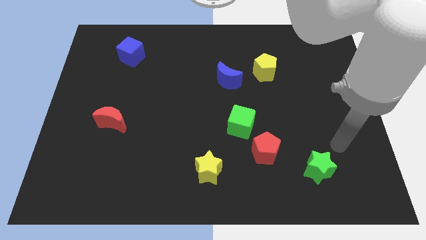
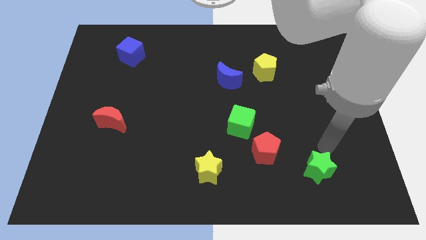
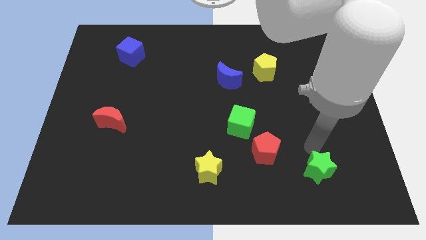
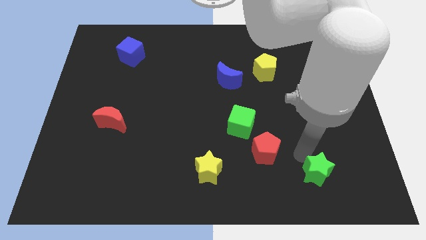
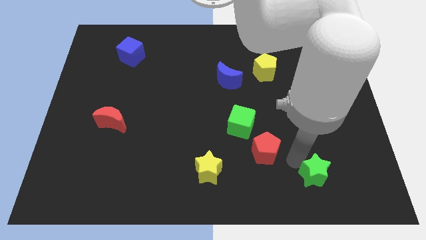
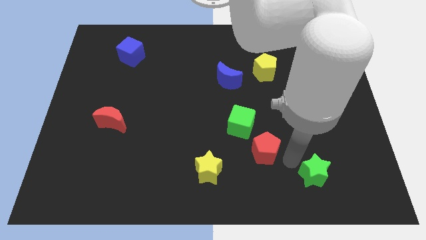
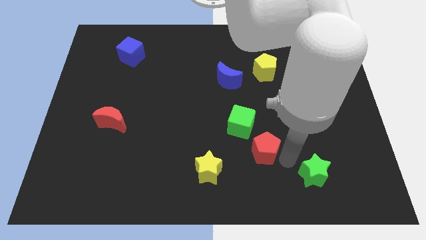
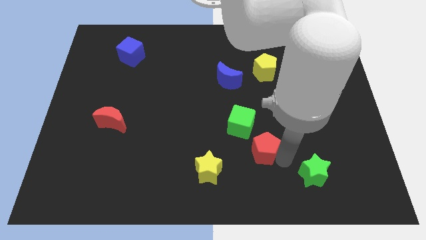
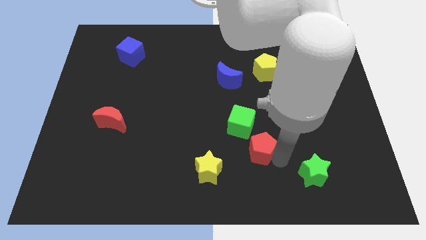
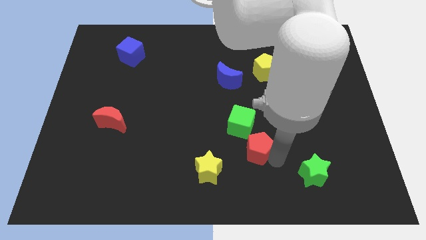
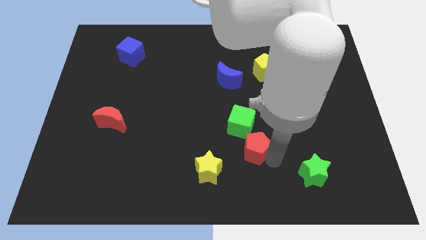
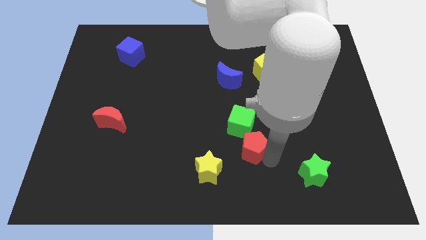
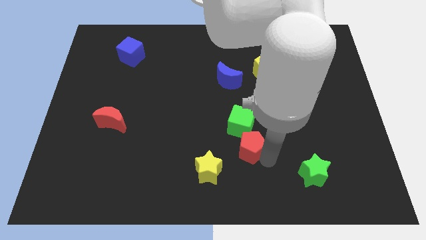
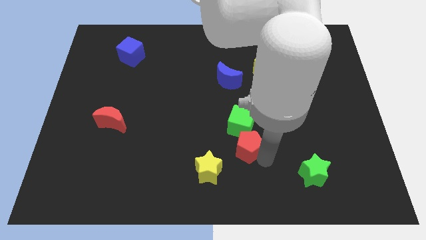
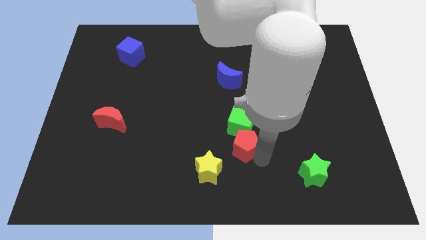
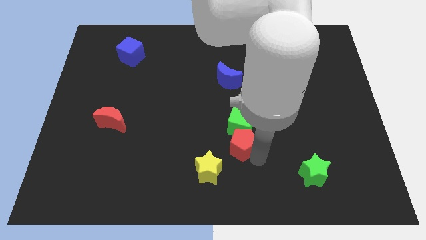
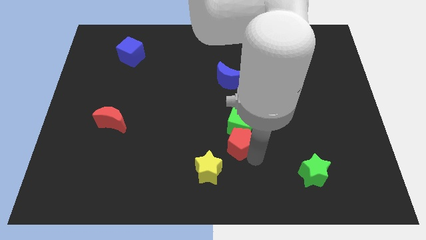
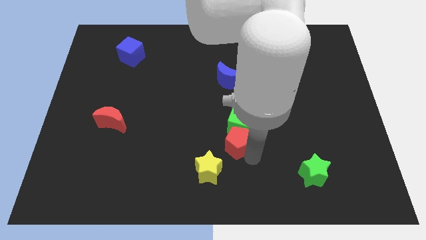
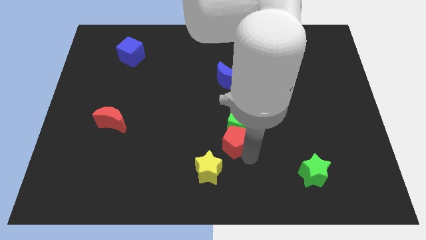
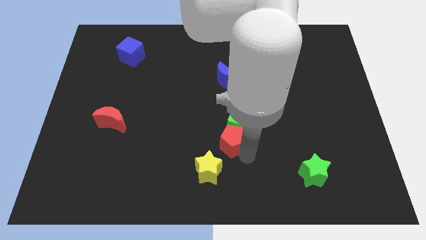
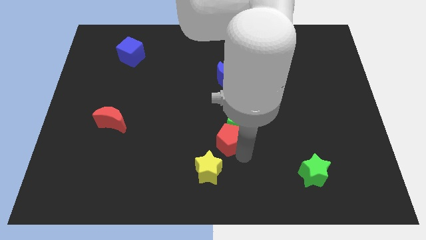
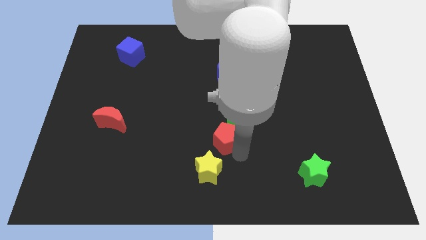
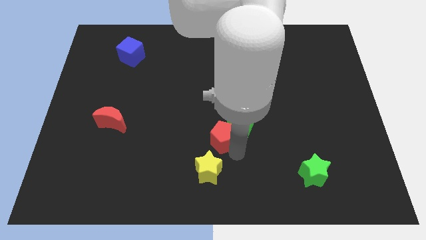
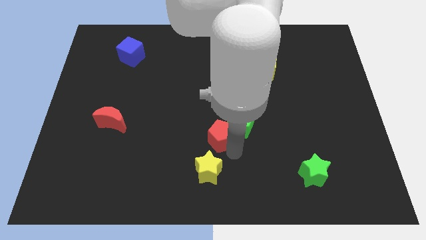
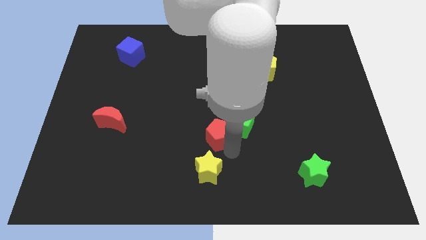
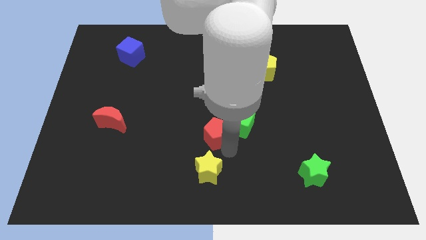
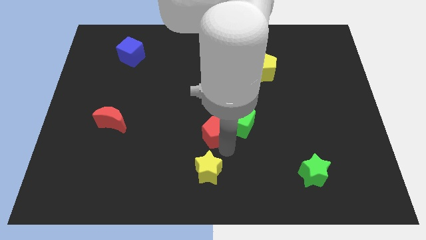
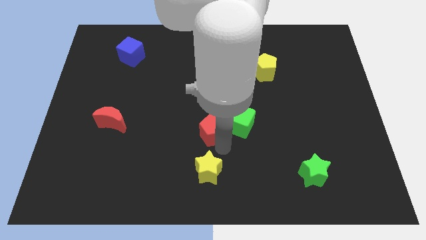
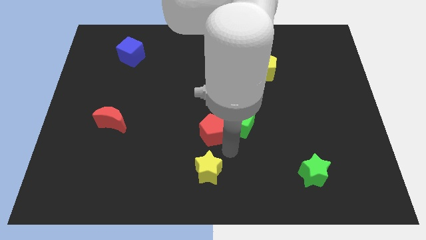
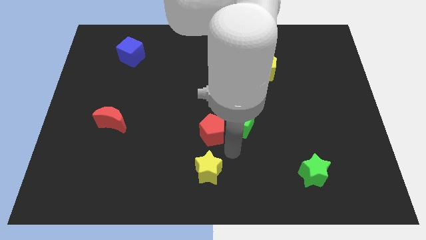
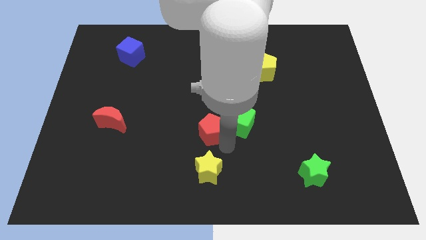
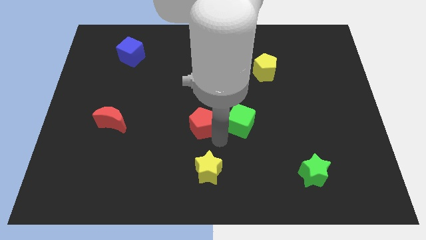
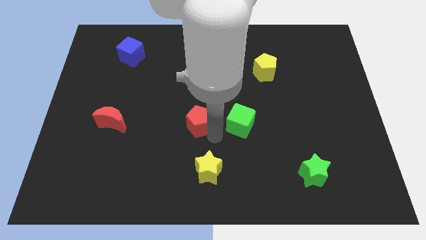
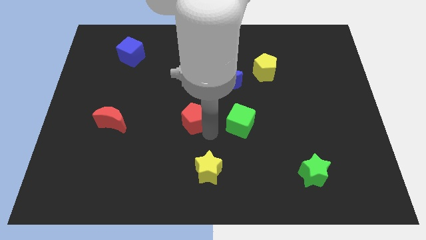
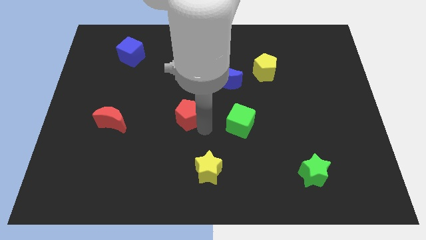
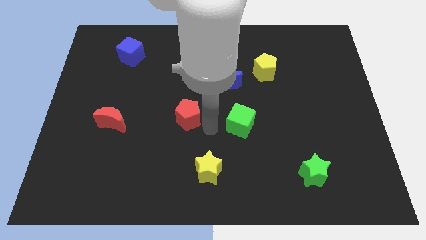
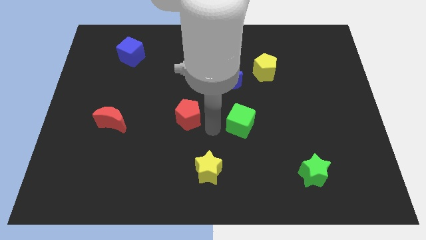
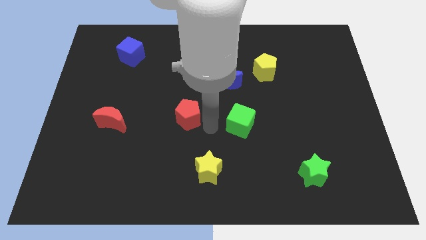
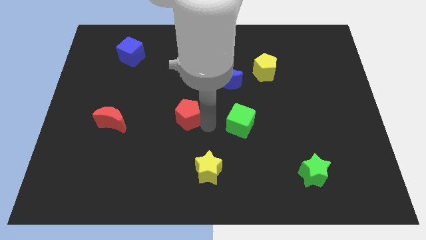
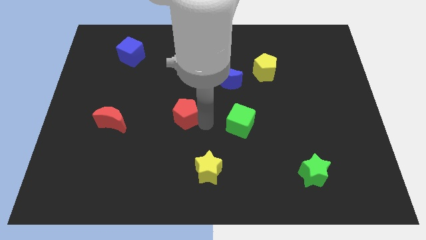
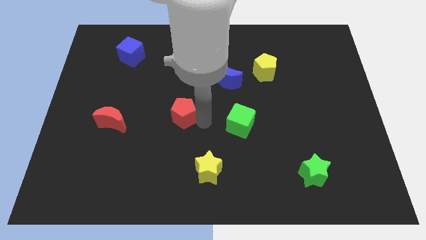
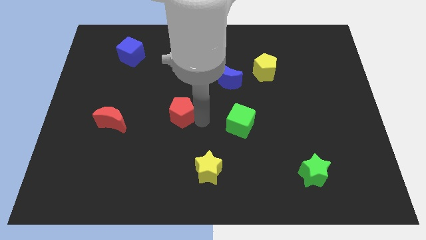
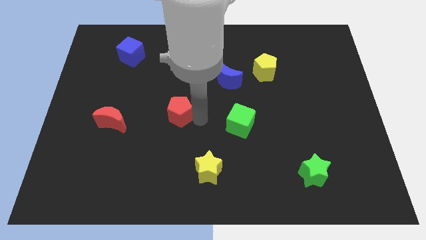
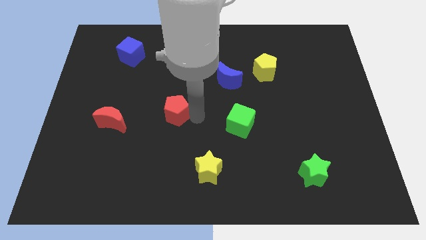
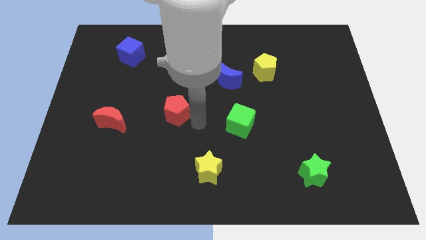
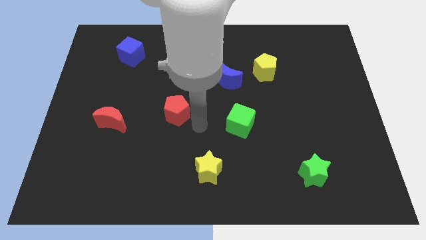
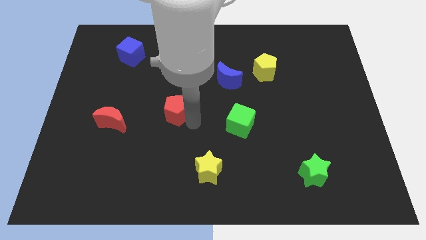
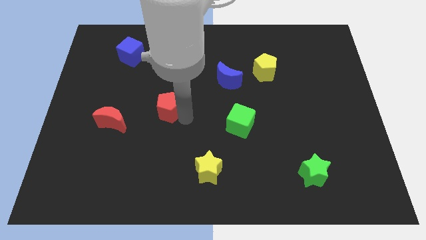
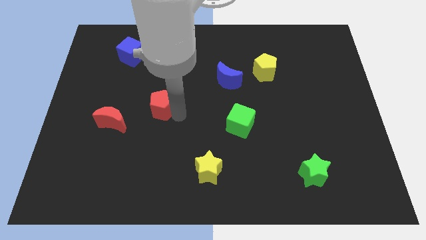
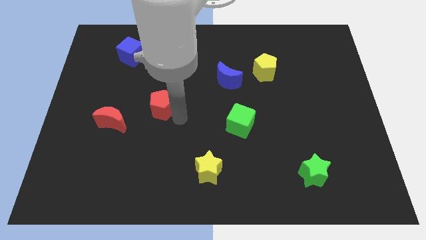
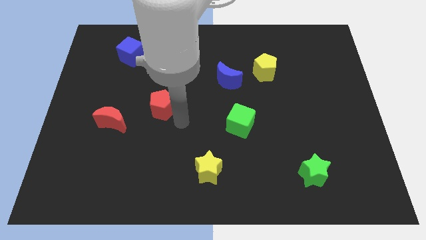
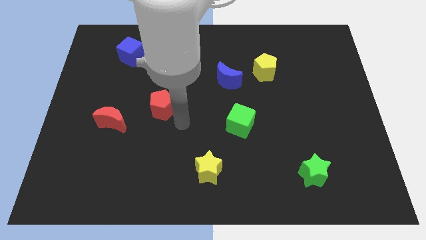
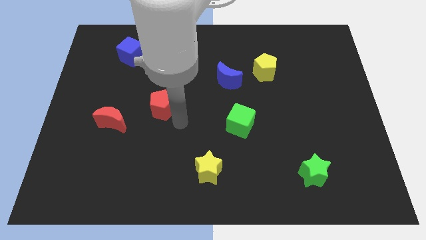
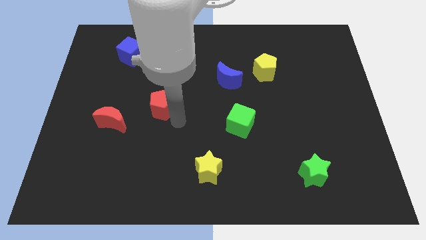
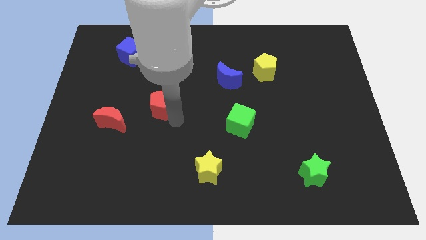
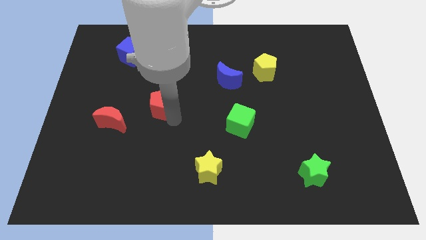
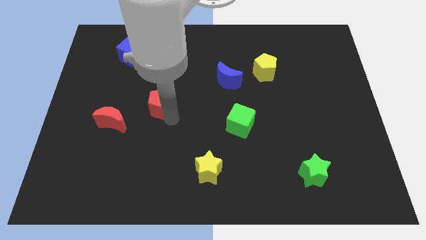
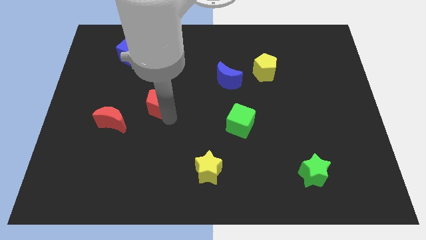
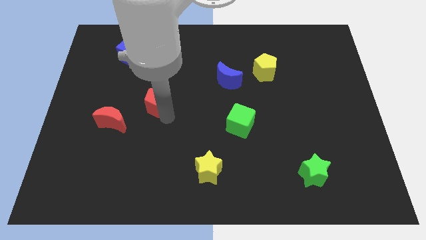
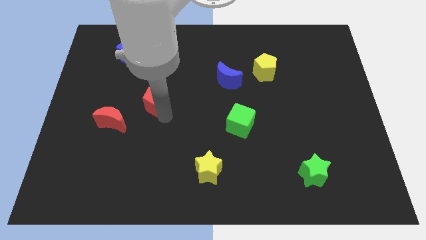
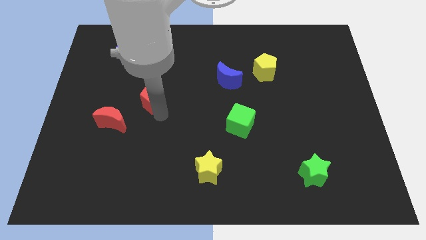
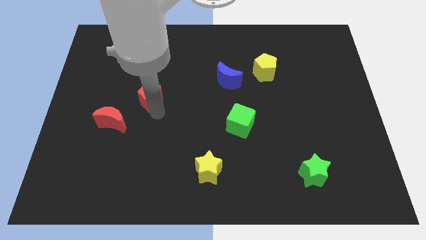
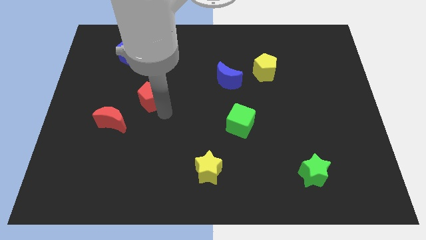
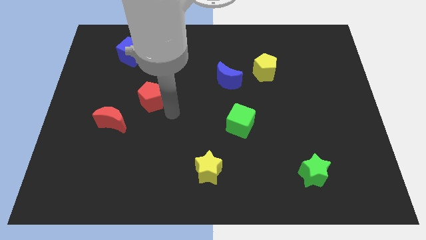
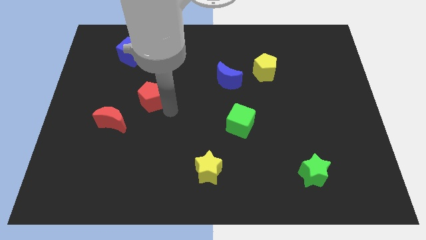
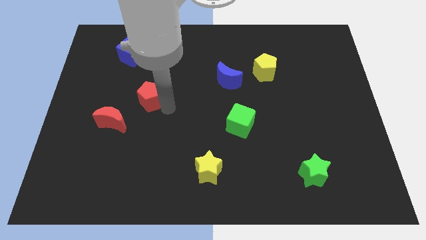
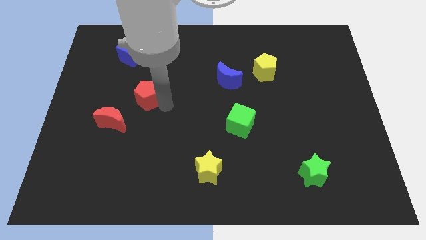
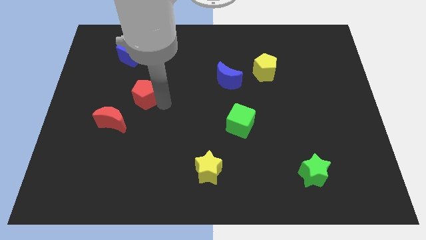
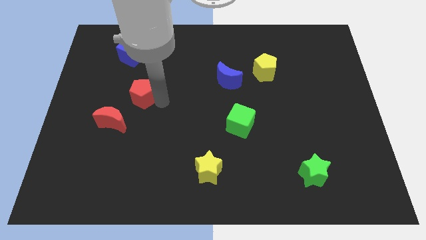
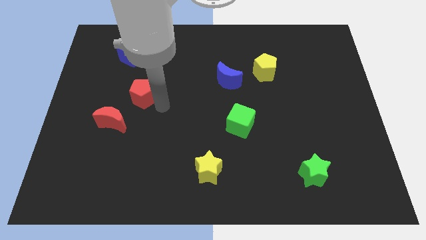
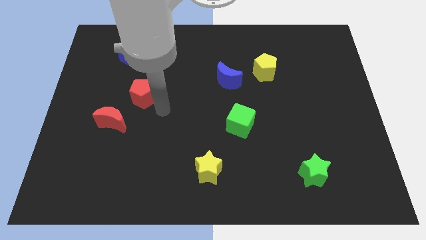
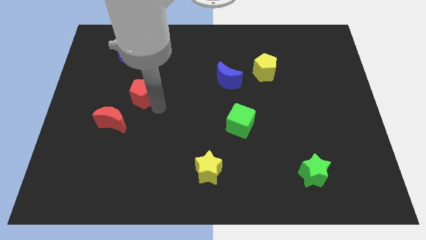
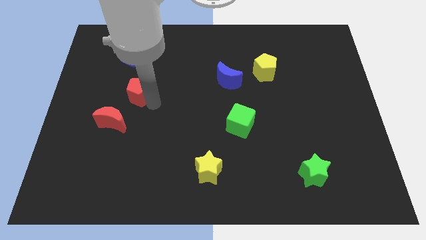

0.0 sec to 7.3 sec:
push the red pentagon below the blue cube

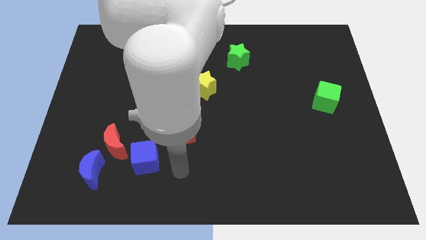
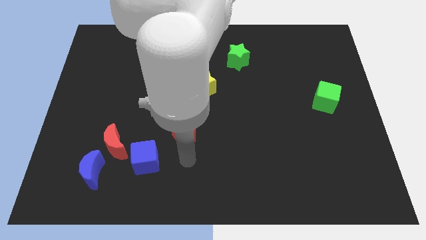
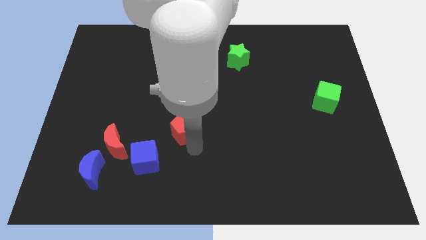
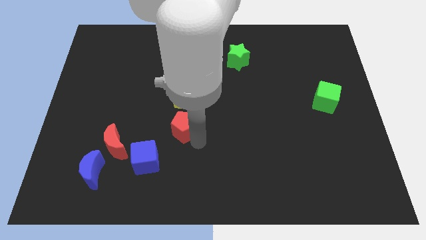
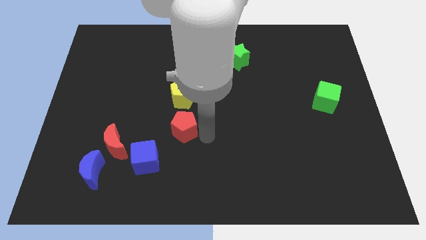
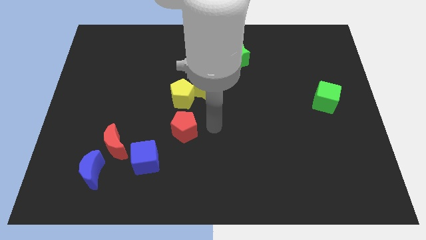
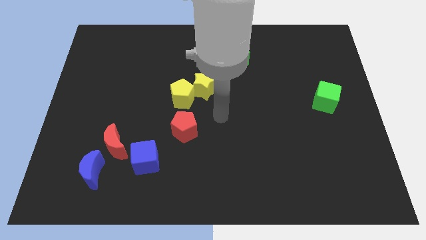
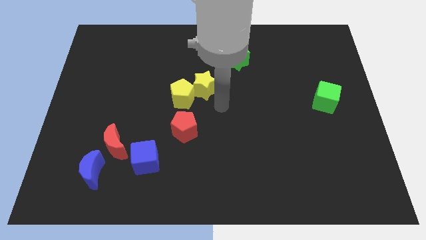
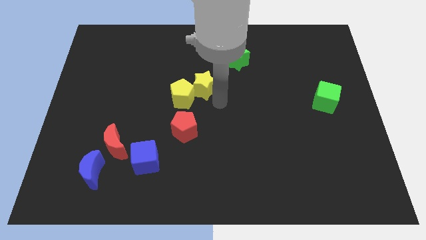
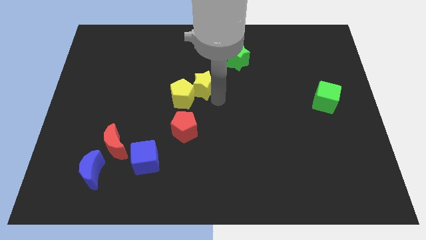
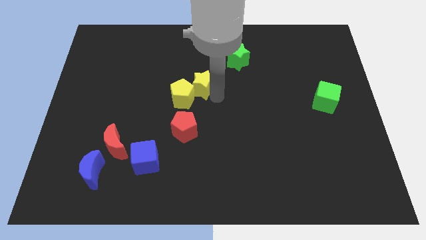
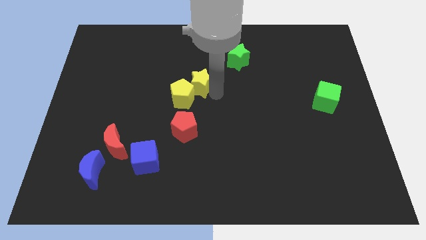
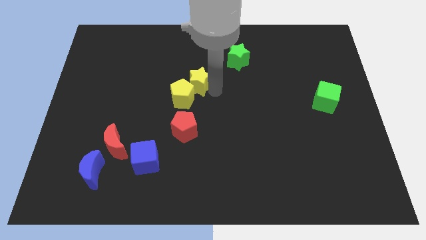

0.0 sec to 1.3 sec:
slide the yellow star above the yellow pentagon
